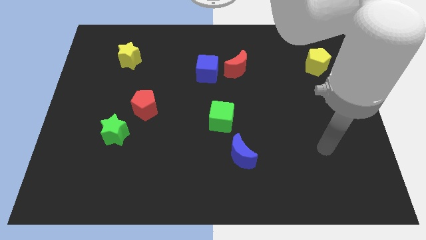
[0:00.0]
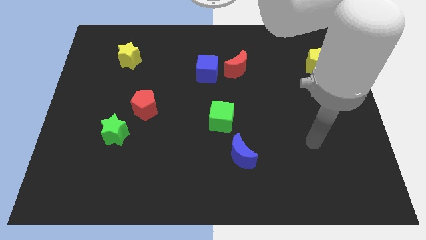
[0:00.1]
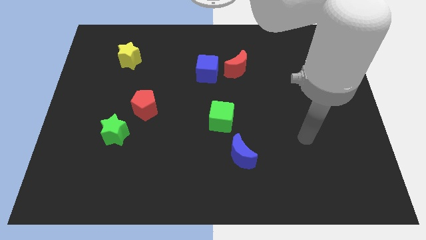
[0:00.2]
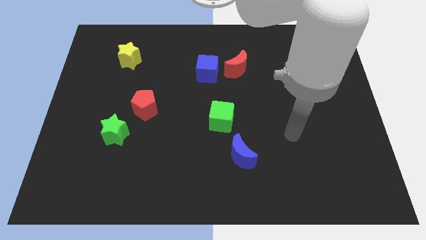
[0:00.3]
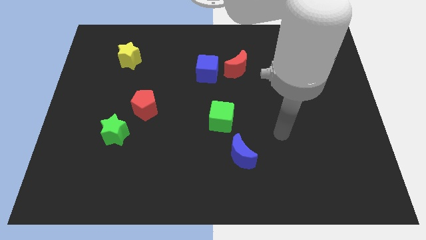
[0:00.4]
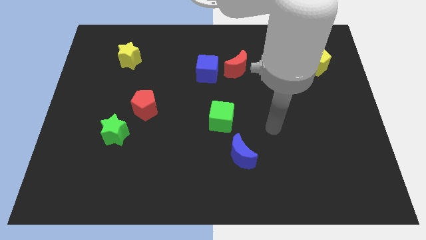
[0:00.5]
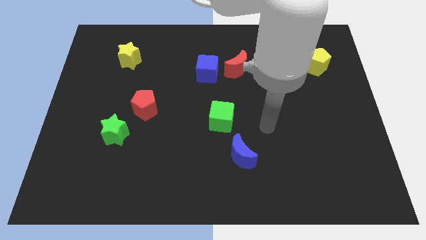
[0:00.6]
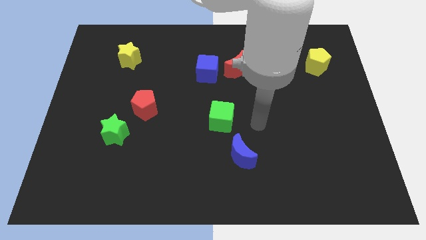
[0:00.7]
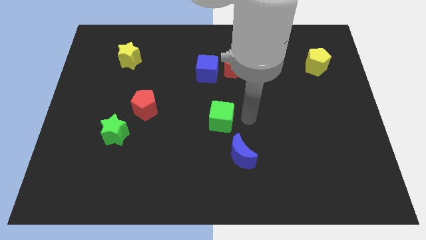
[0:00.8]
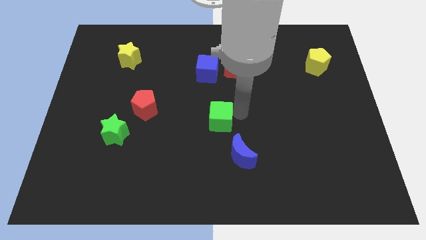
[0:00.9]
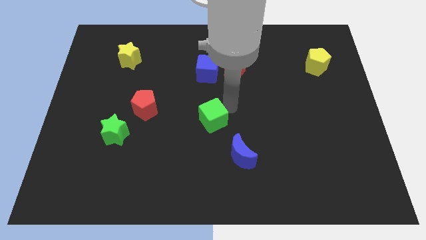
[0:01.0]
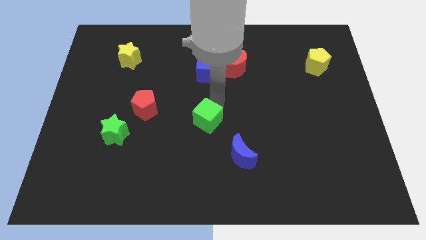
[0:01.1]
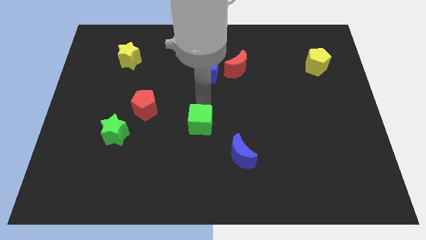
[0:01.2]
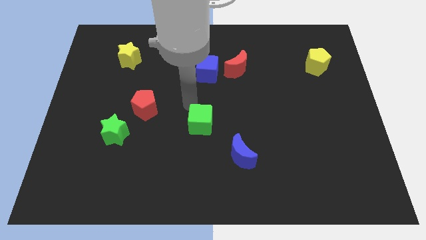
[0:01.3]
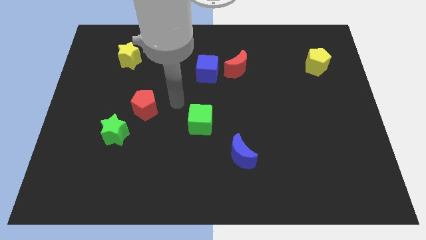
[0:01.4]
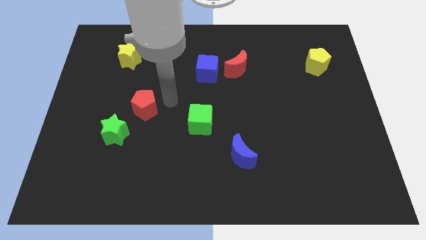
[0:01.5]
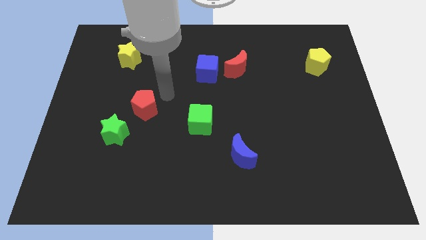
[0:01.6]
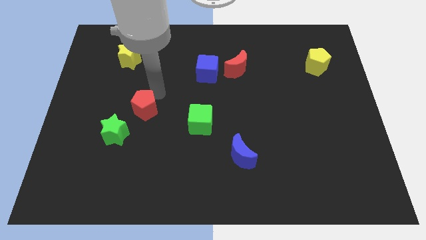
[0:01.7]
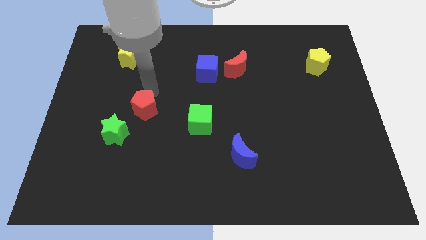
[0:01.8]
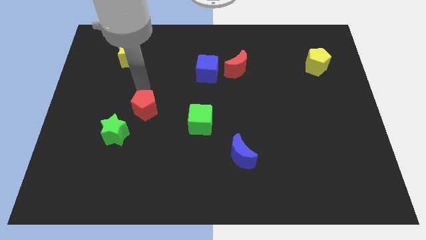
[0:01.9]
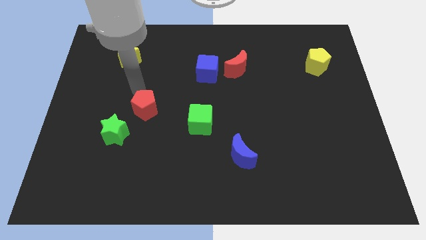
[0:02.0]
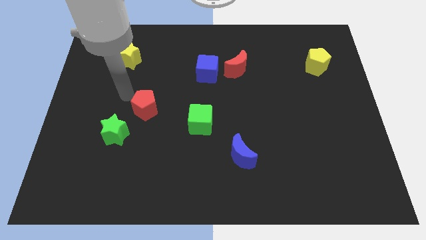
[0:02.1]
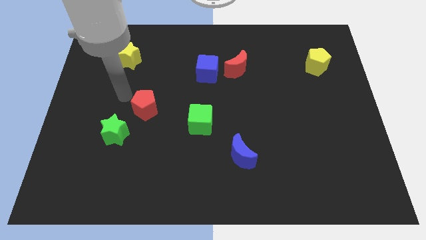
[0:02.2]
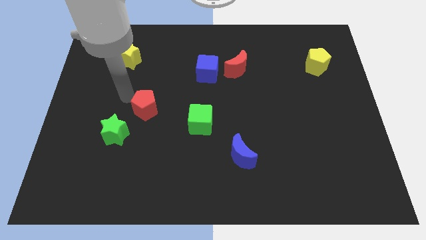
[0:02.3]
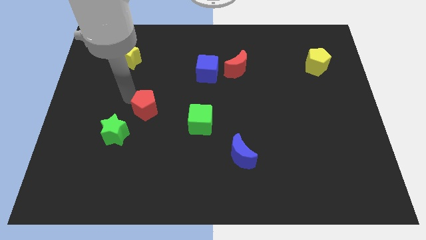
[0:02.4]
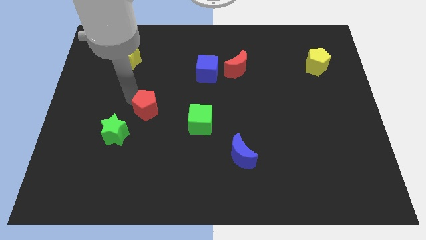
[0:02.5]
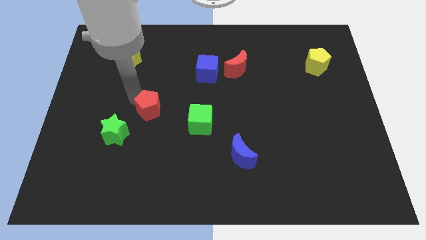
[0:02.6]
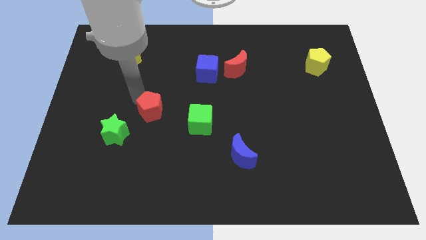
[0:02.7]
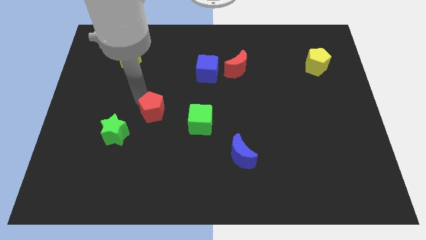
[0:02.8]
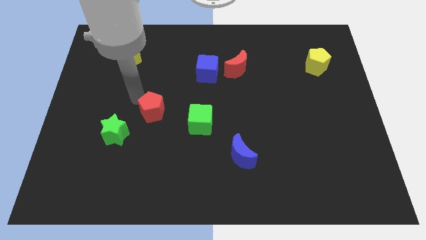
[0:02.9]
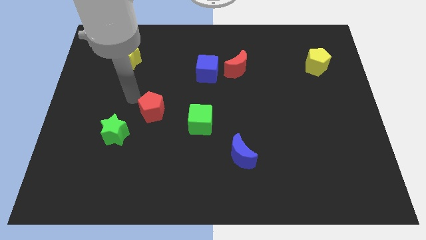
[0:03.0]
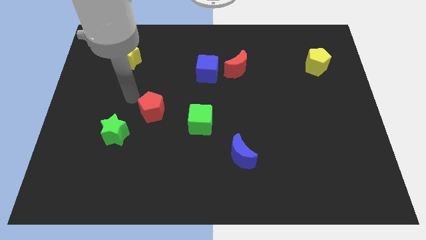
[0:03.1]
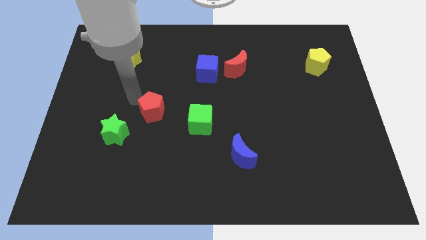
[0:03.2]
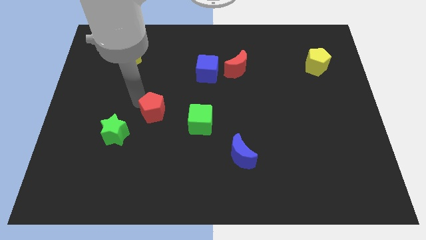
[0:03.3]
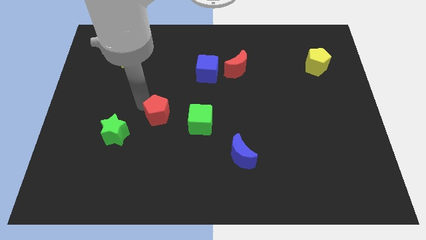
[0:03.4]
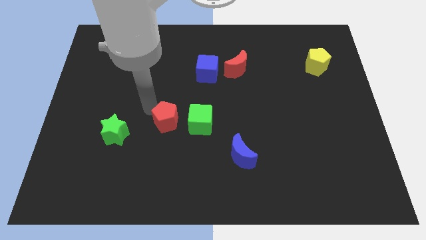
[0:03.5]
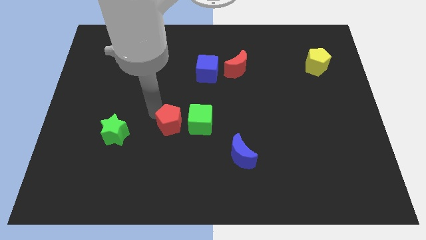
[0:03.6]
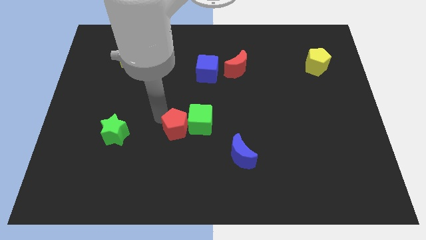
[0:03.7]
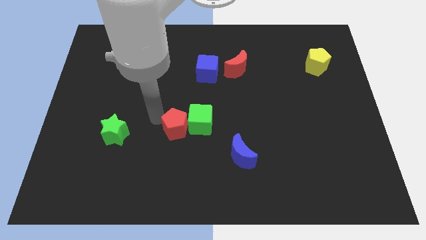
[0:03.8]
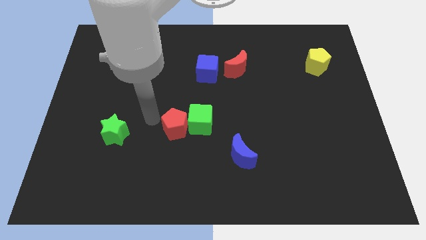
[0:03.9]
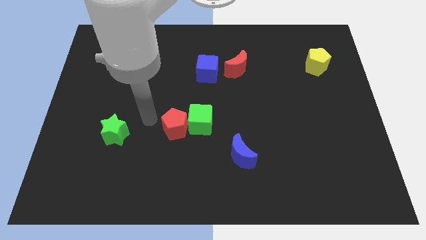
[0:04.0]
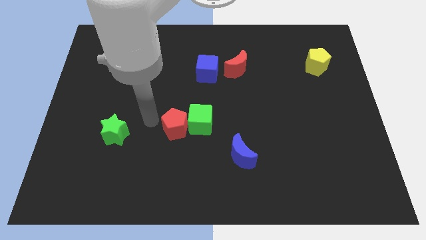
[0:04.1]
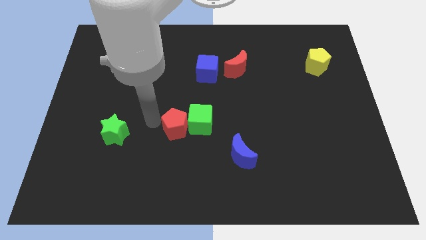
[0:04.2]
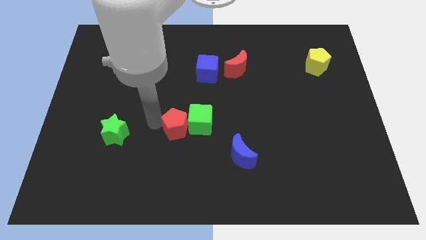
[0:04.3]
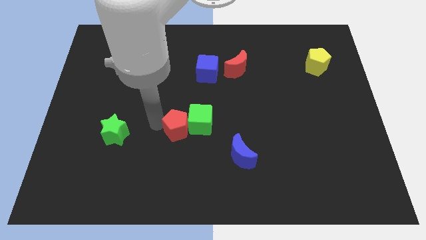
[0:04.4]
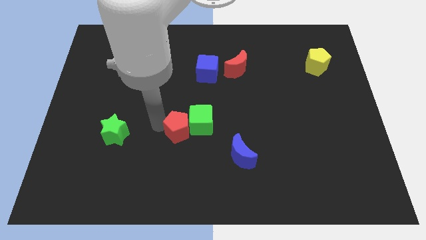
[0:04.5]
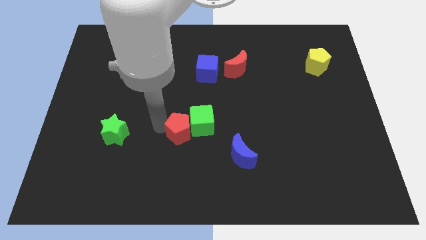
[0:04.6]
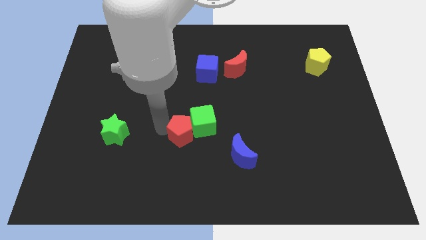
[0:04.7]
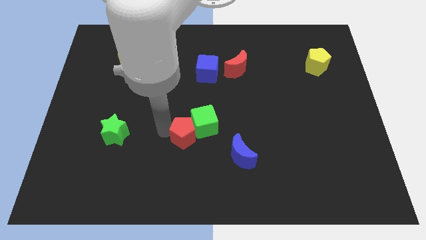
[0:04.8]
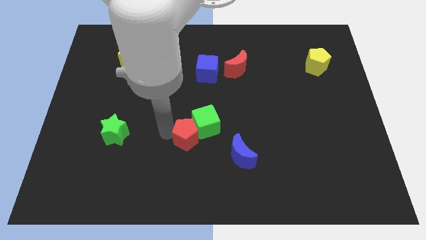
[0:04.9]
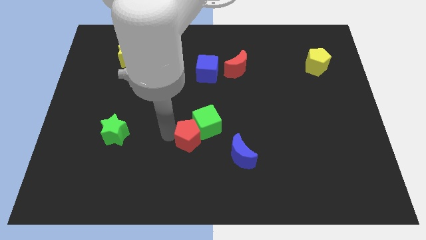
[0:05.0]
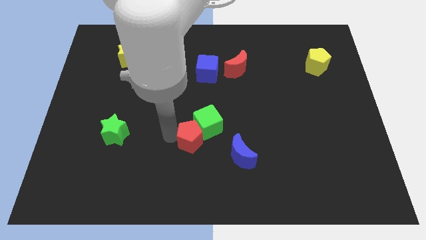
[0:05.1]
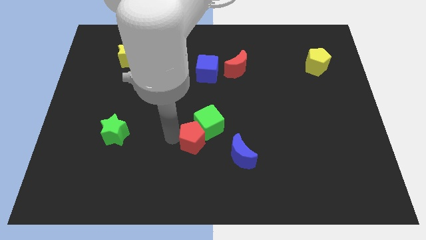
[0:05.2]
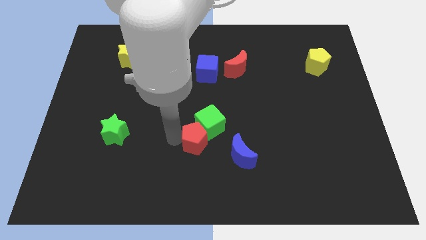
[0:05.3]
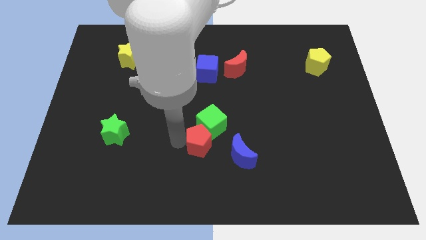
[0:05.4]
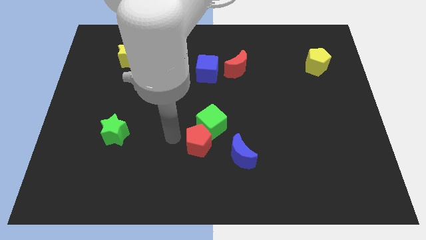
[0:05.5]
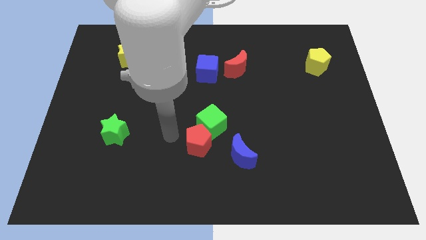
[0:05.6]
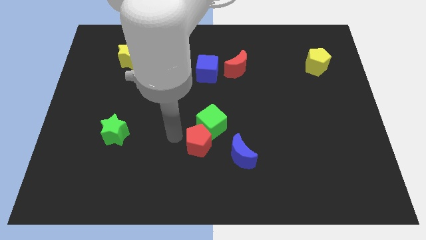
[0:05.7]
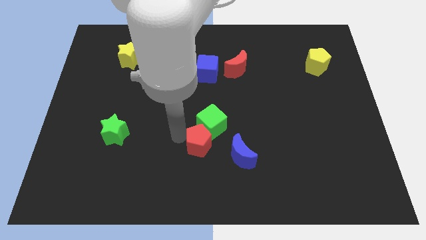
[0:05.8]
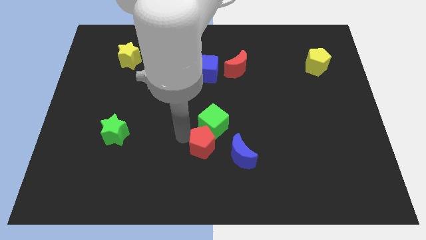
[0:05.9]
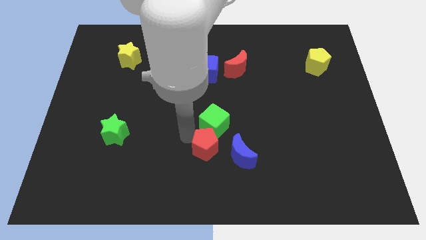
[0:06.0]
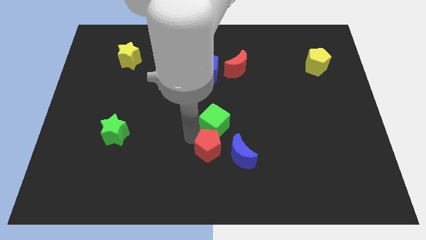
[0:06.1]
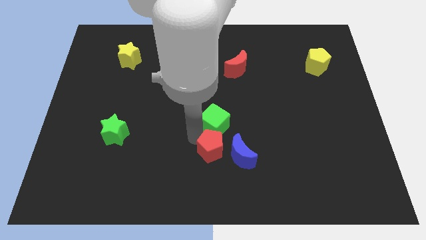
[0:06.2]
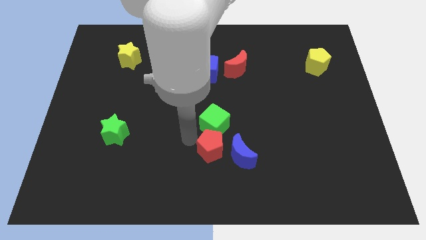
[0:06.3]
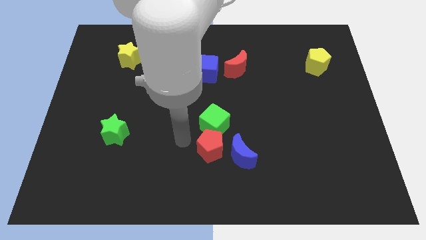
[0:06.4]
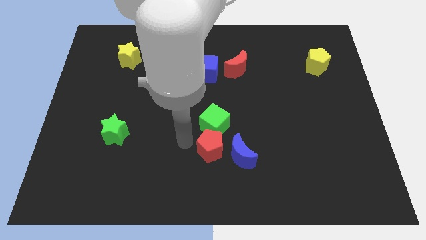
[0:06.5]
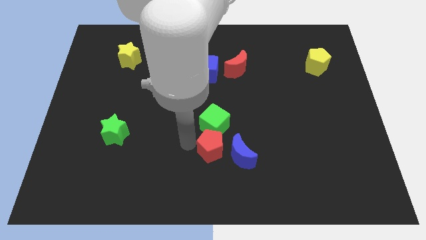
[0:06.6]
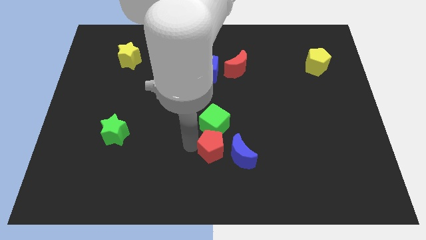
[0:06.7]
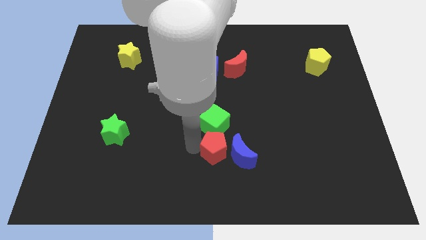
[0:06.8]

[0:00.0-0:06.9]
move the red pentagon next to the blue moon

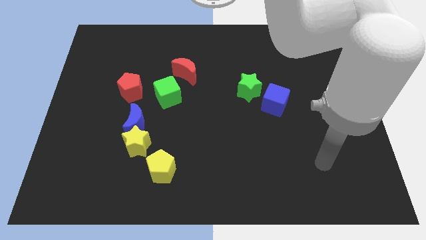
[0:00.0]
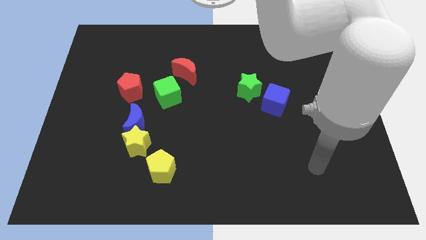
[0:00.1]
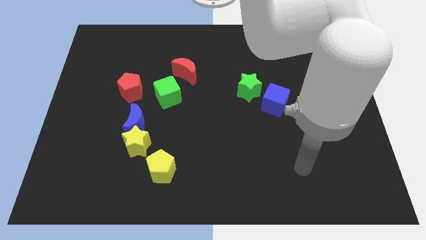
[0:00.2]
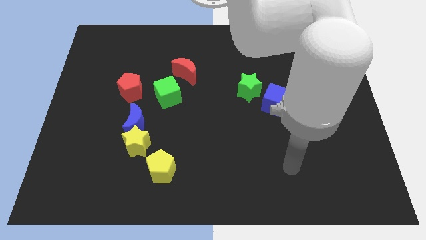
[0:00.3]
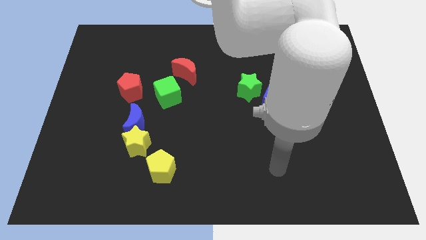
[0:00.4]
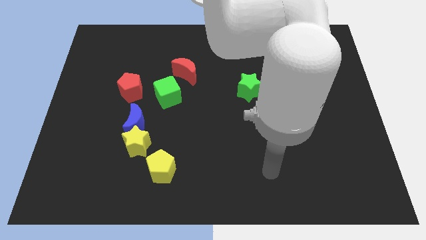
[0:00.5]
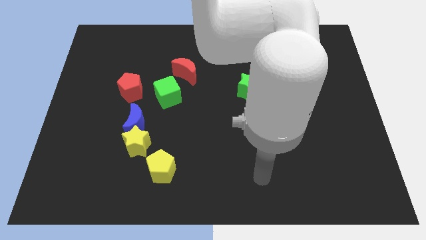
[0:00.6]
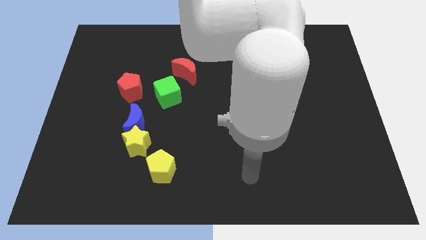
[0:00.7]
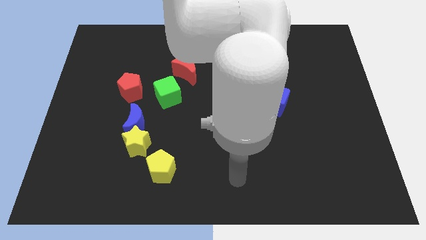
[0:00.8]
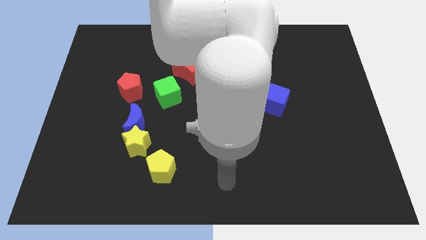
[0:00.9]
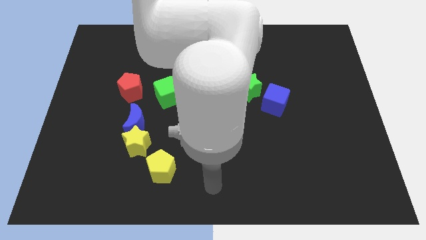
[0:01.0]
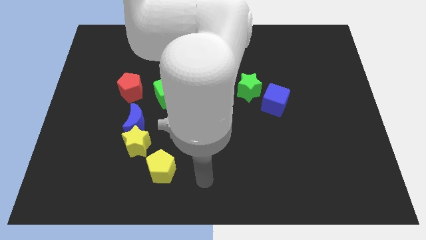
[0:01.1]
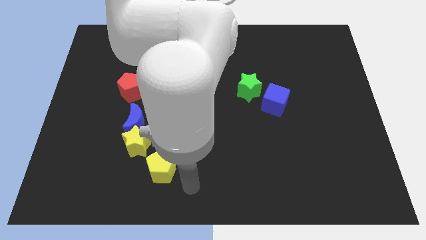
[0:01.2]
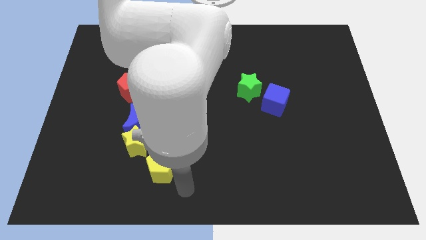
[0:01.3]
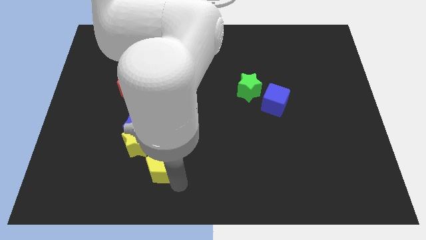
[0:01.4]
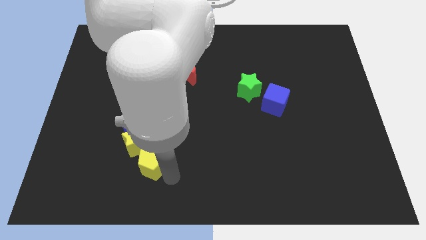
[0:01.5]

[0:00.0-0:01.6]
put the yellow pentagon towards the yellow star
